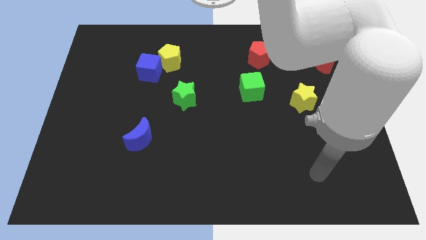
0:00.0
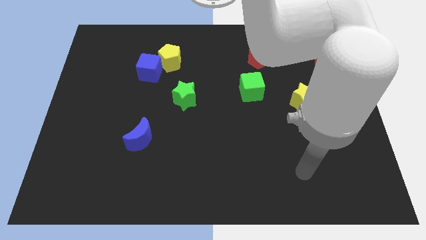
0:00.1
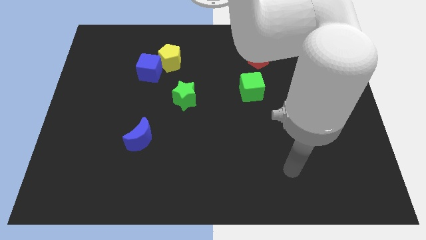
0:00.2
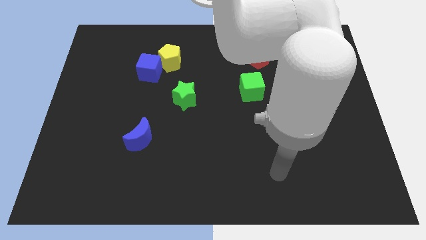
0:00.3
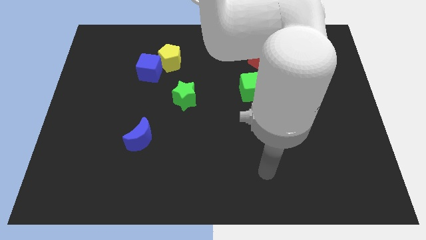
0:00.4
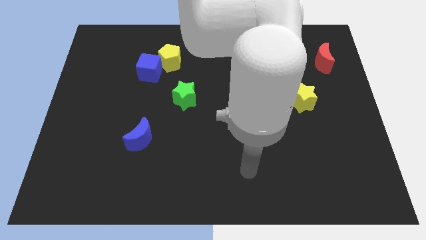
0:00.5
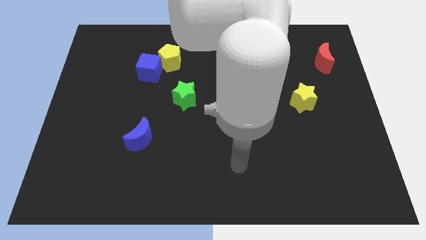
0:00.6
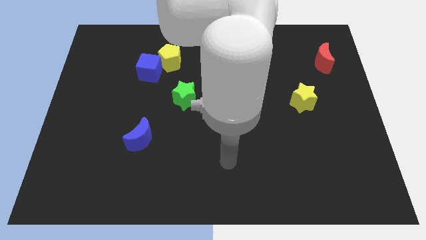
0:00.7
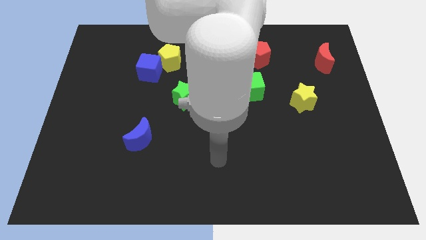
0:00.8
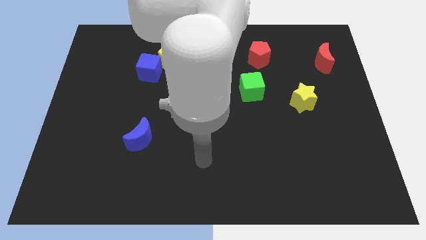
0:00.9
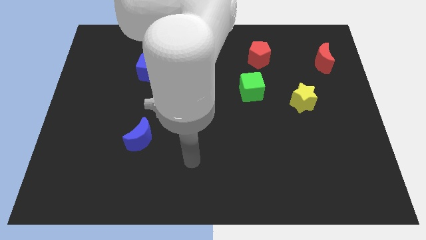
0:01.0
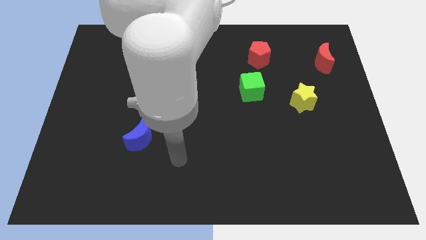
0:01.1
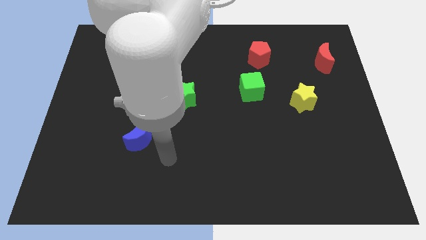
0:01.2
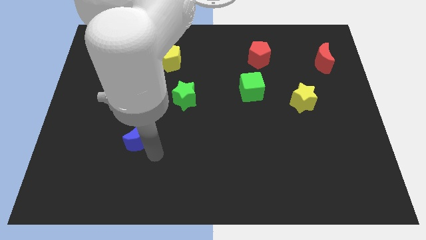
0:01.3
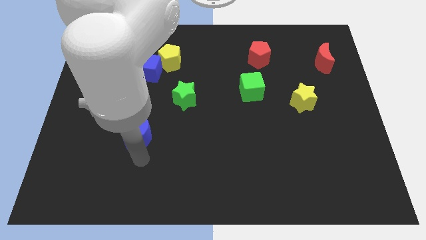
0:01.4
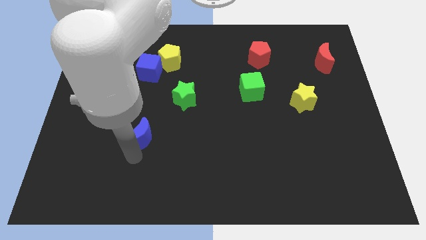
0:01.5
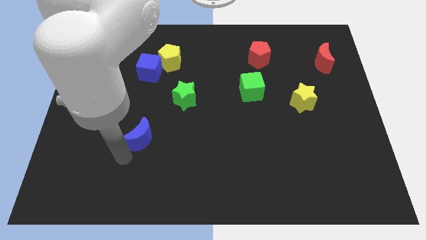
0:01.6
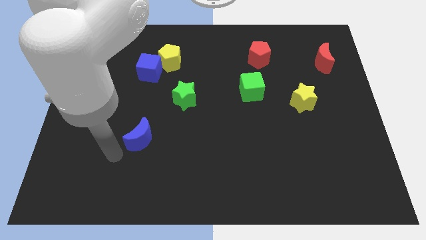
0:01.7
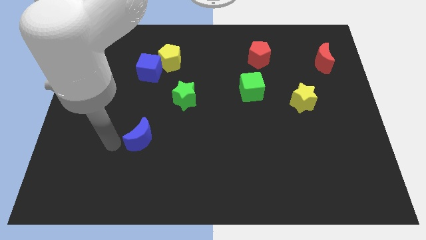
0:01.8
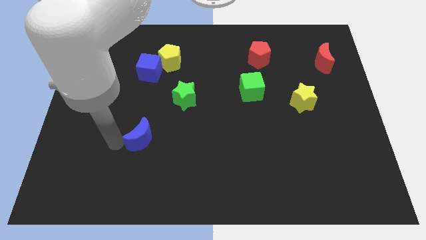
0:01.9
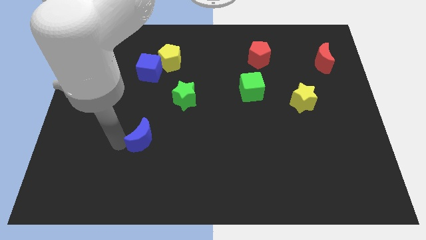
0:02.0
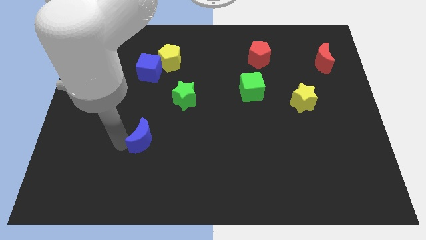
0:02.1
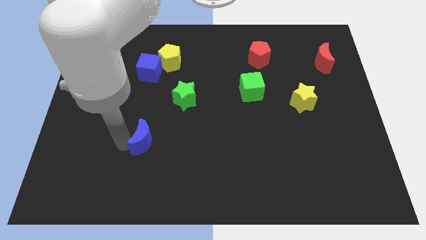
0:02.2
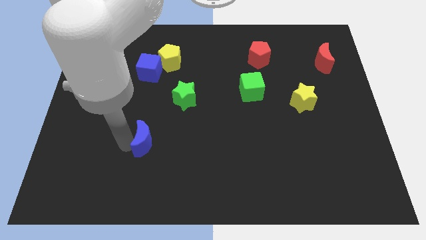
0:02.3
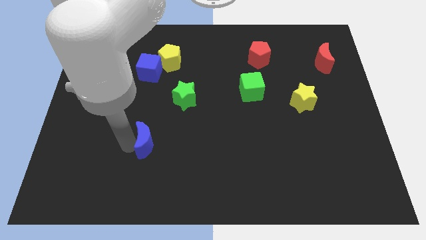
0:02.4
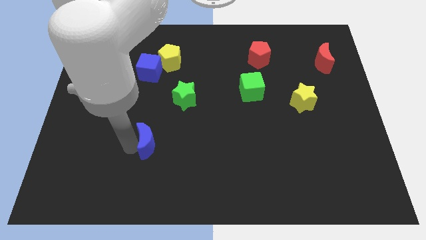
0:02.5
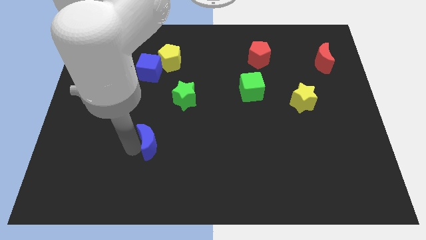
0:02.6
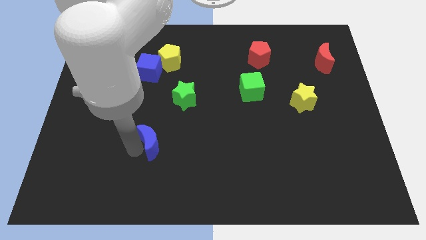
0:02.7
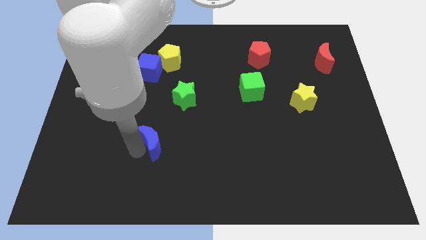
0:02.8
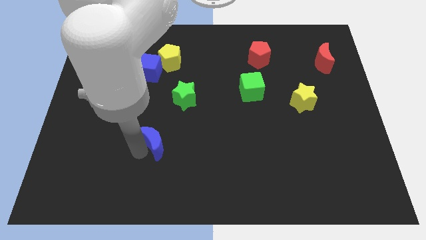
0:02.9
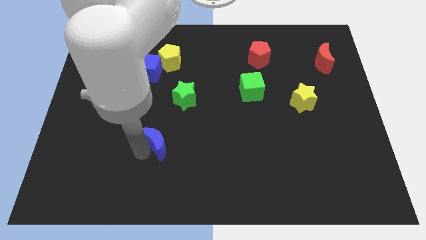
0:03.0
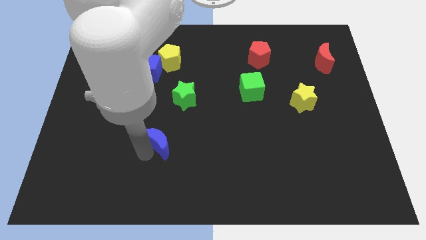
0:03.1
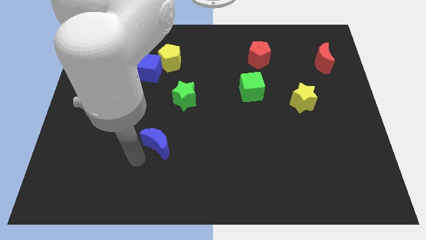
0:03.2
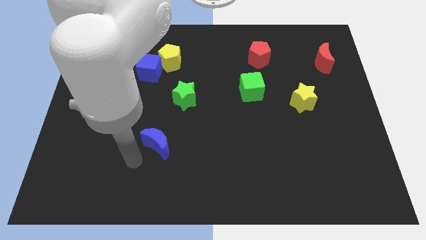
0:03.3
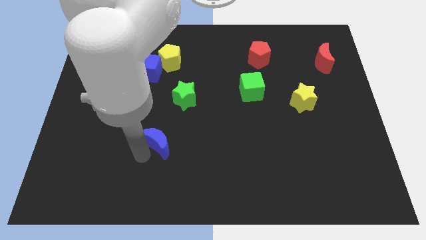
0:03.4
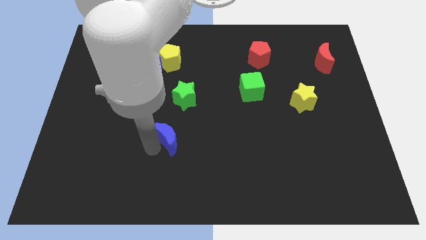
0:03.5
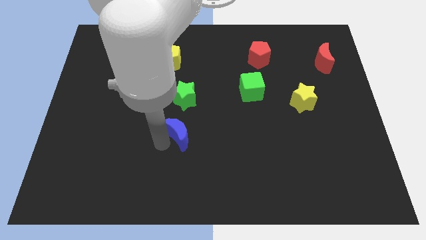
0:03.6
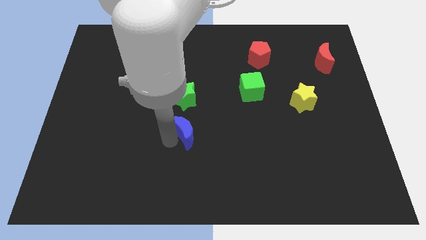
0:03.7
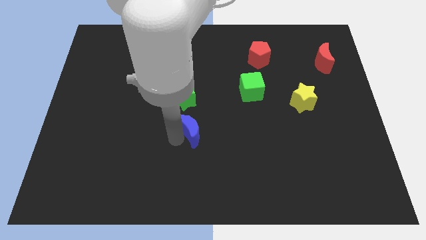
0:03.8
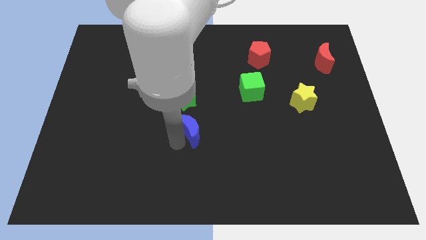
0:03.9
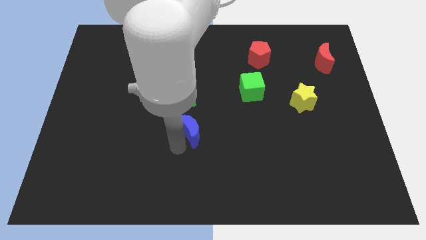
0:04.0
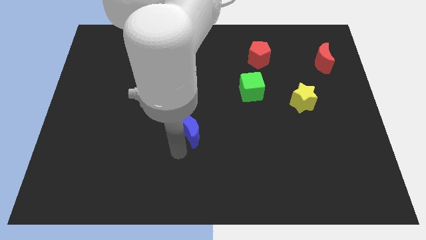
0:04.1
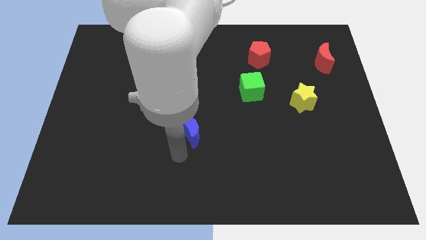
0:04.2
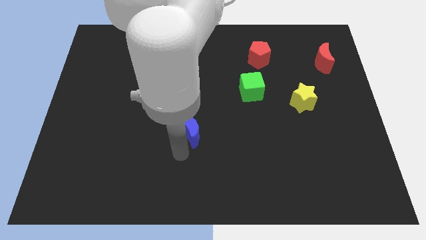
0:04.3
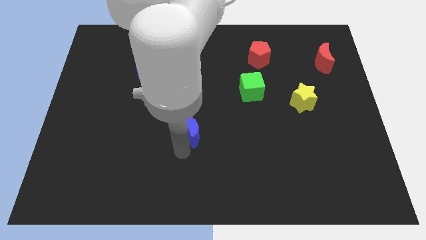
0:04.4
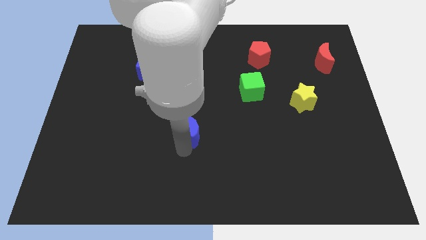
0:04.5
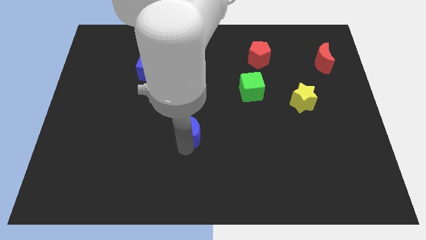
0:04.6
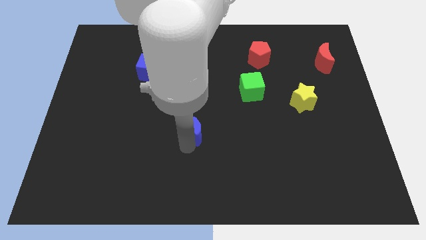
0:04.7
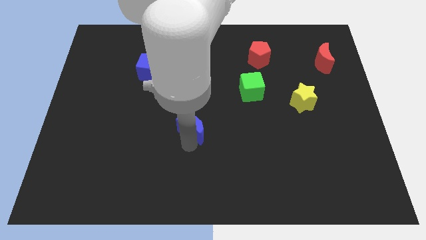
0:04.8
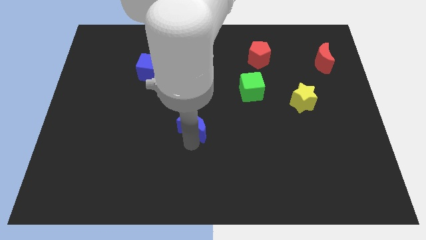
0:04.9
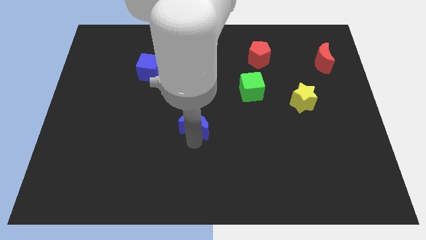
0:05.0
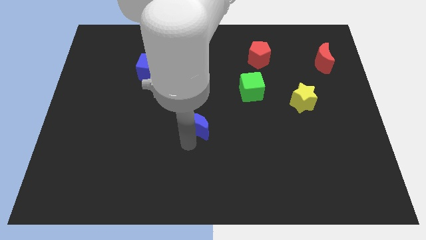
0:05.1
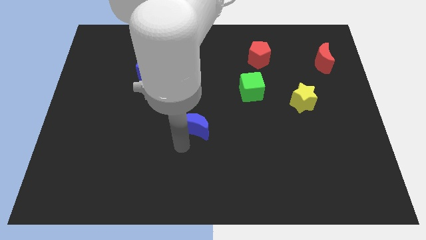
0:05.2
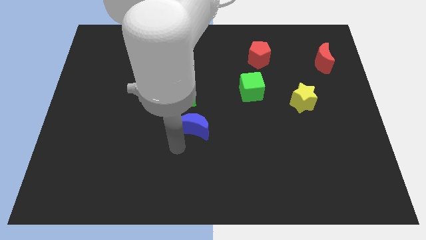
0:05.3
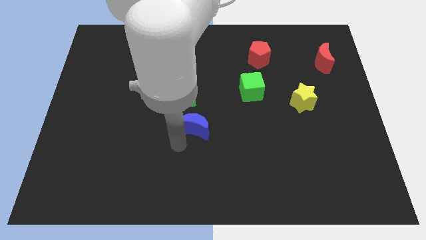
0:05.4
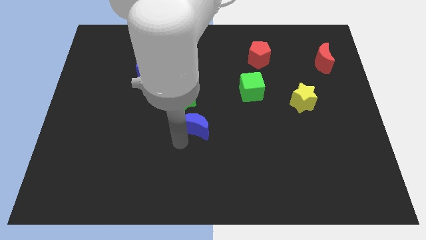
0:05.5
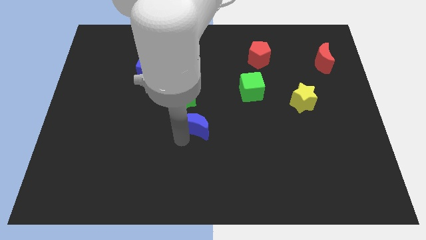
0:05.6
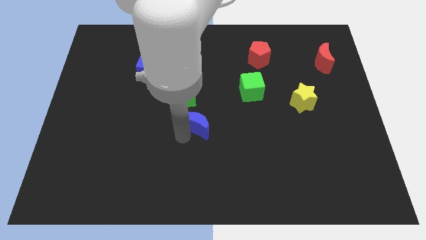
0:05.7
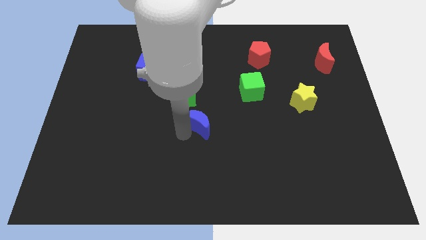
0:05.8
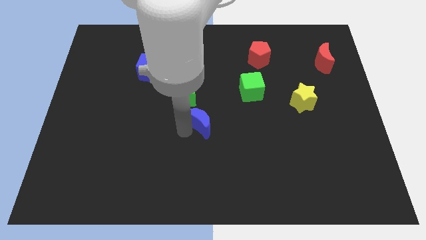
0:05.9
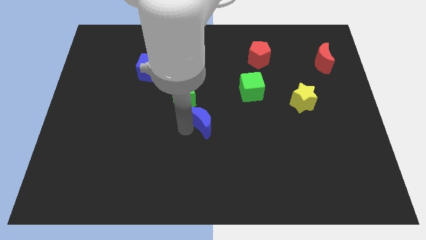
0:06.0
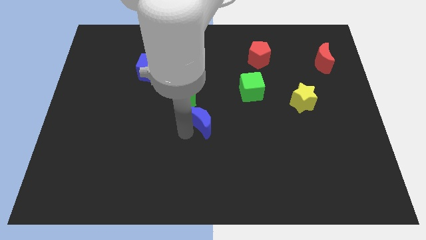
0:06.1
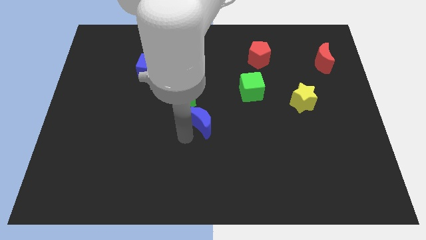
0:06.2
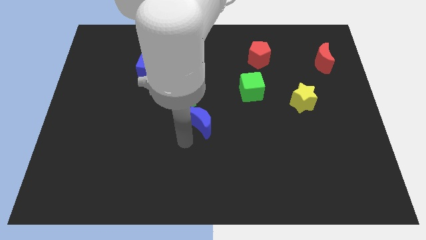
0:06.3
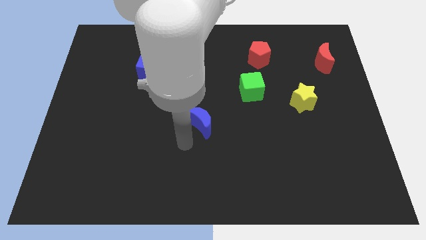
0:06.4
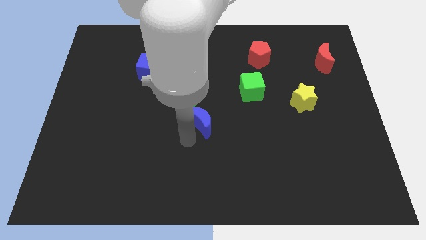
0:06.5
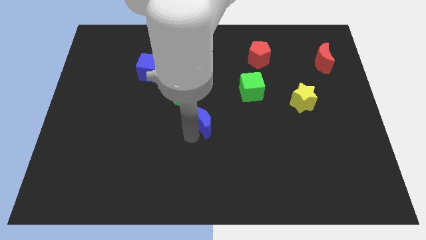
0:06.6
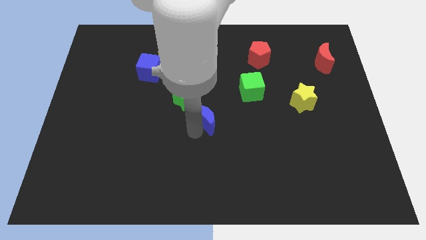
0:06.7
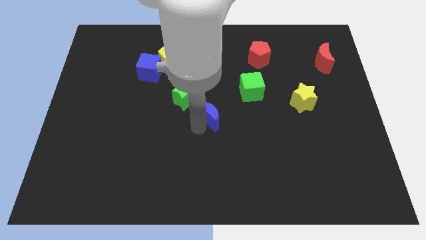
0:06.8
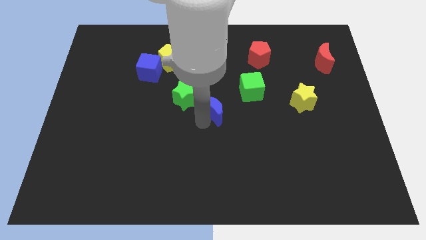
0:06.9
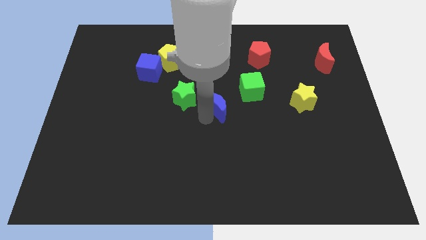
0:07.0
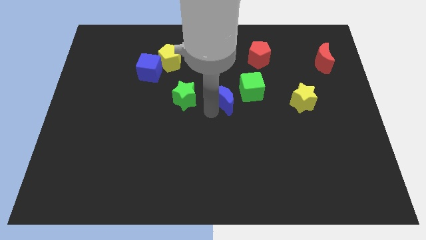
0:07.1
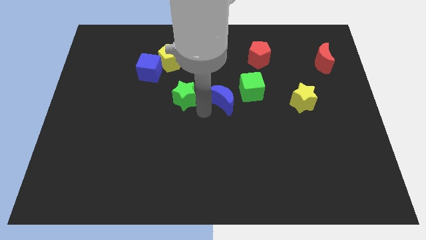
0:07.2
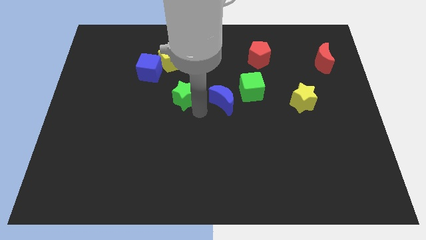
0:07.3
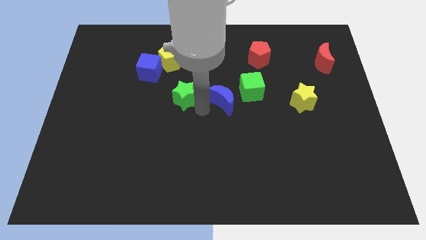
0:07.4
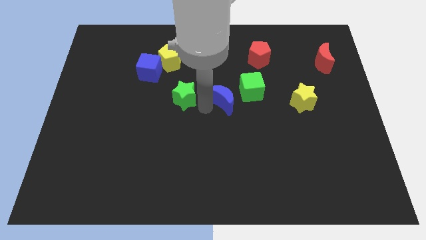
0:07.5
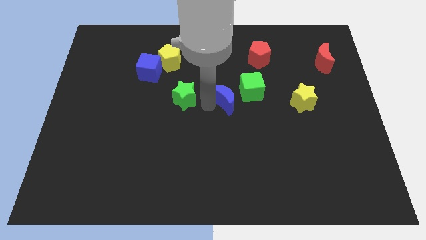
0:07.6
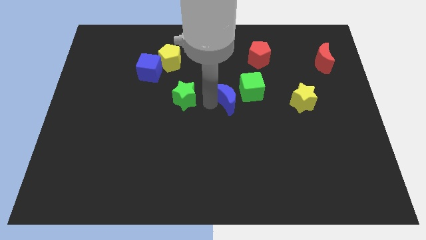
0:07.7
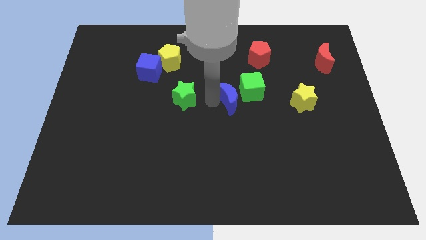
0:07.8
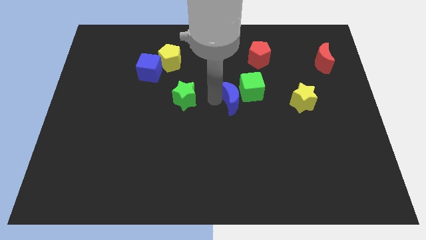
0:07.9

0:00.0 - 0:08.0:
slide the blue moon to the green cube

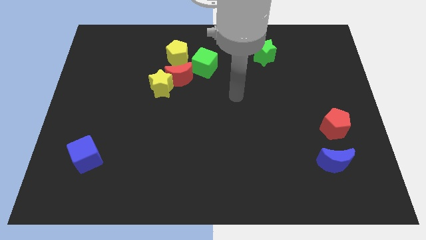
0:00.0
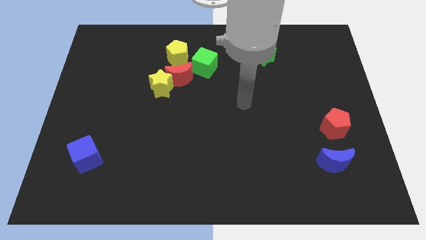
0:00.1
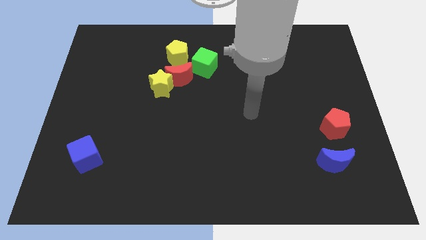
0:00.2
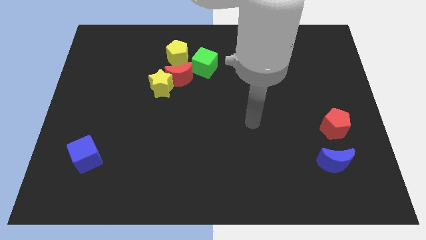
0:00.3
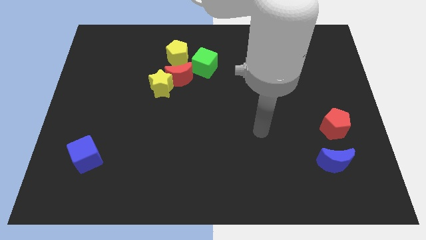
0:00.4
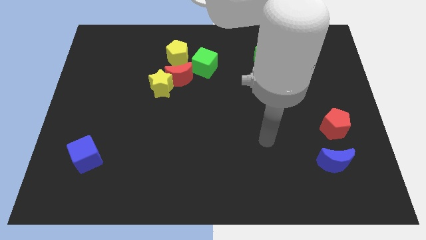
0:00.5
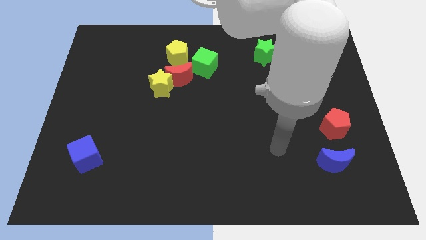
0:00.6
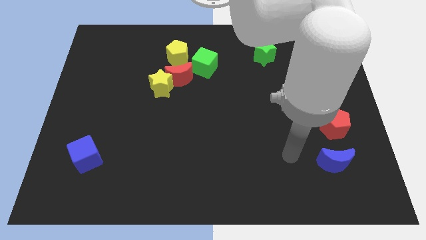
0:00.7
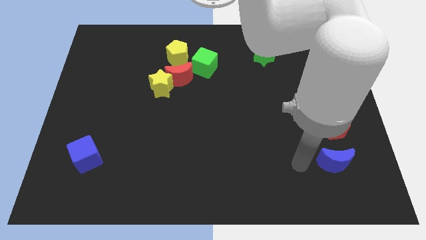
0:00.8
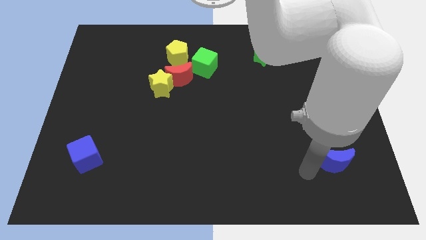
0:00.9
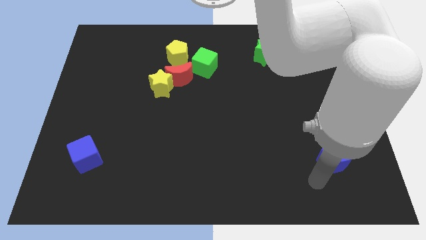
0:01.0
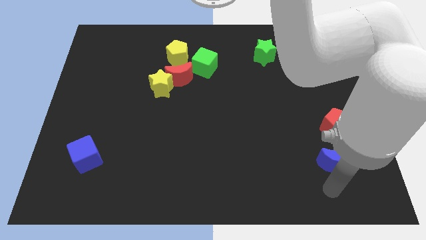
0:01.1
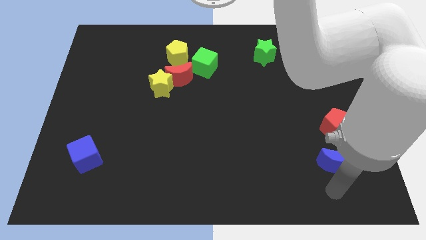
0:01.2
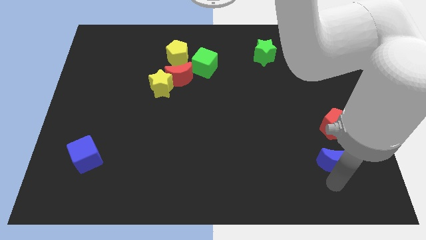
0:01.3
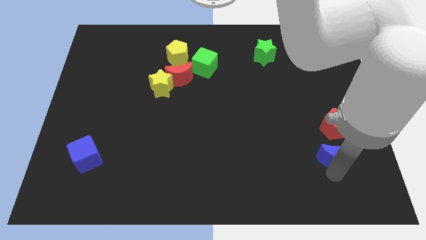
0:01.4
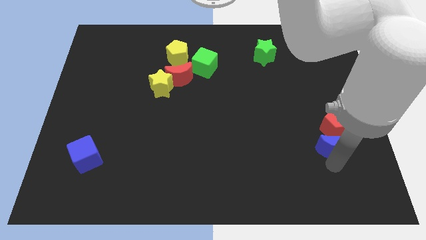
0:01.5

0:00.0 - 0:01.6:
move the blue moon next to the red pentagon
